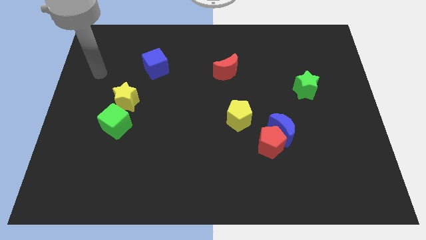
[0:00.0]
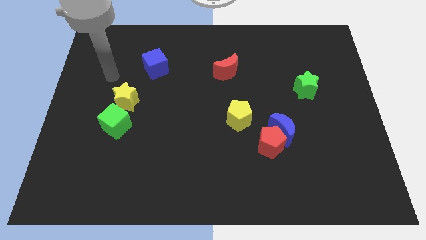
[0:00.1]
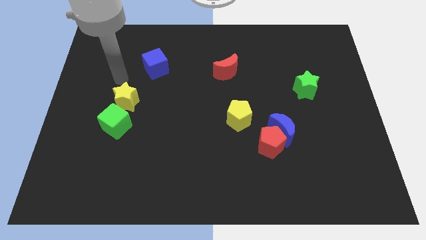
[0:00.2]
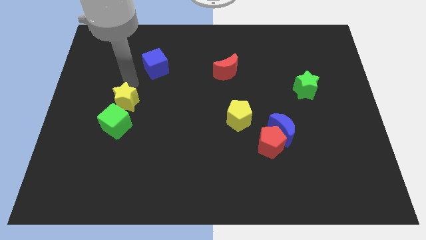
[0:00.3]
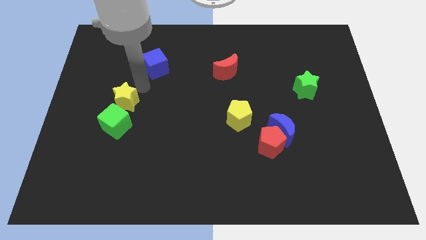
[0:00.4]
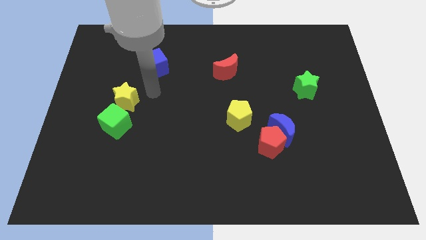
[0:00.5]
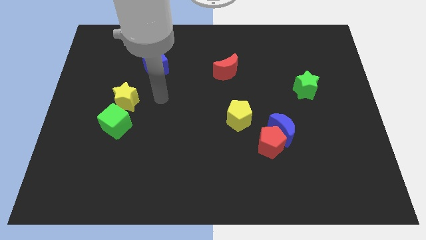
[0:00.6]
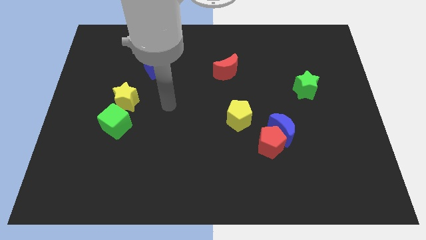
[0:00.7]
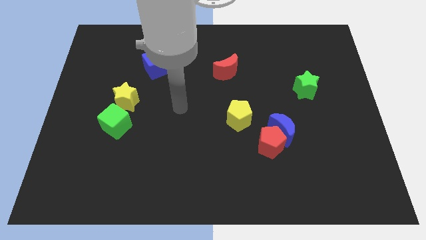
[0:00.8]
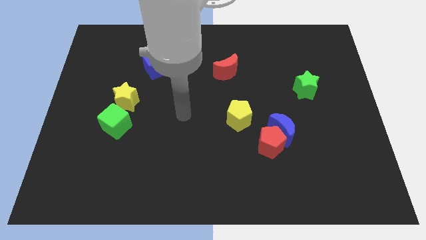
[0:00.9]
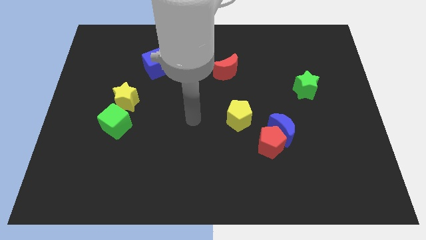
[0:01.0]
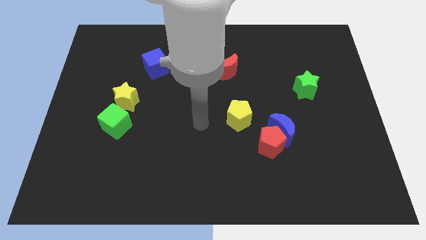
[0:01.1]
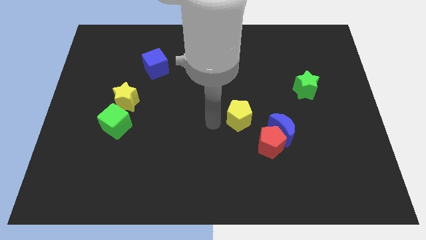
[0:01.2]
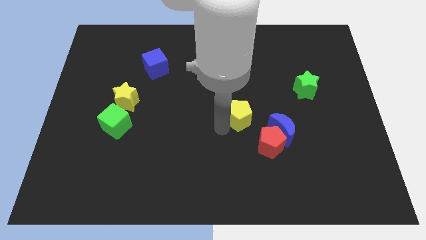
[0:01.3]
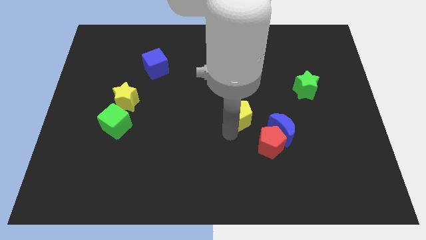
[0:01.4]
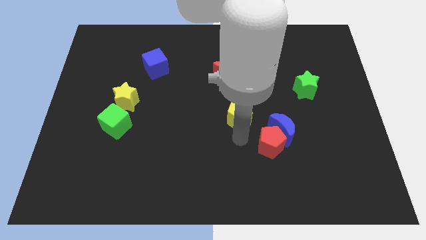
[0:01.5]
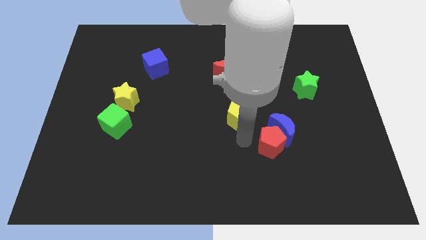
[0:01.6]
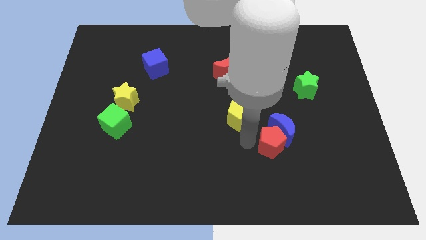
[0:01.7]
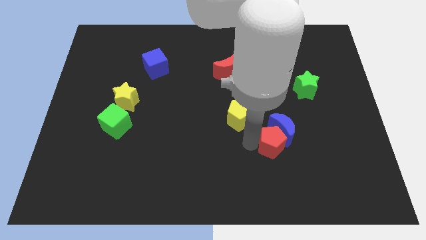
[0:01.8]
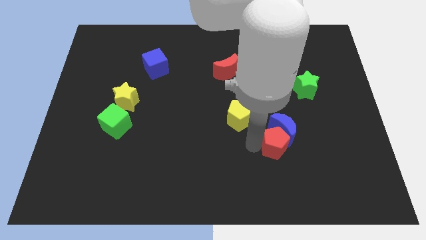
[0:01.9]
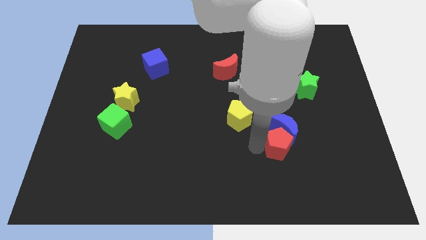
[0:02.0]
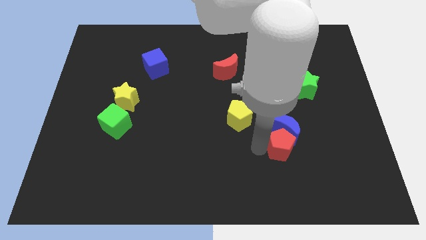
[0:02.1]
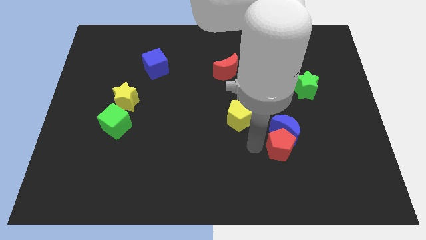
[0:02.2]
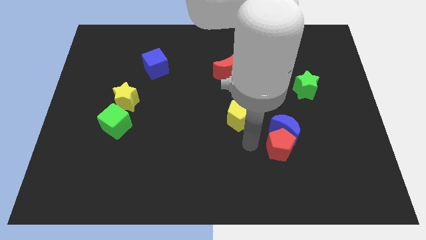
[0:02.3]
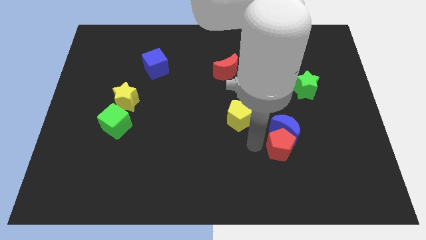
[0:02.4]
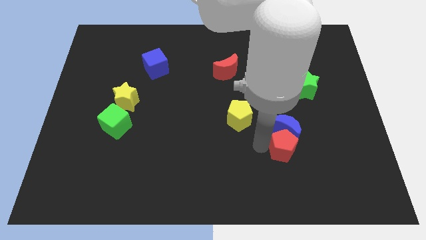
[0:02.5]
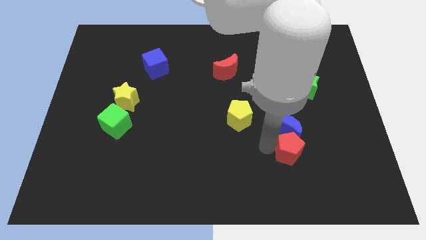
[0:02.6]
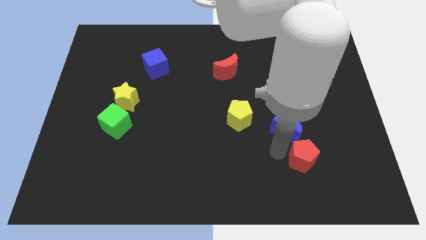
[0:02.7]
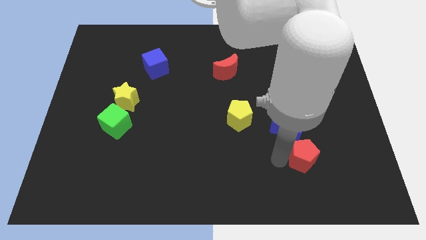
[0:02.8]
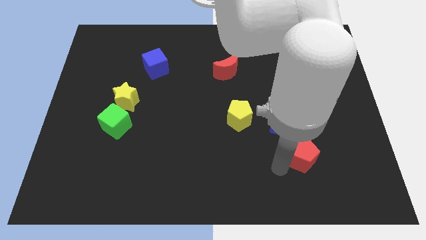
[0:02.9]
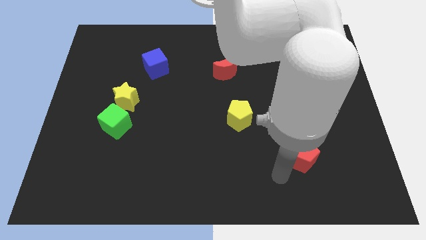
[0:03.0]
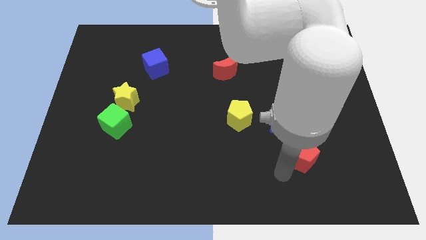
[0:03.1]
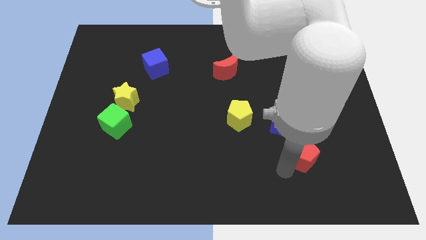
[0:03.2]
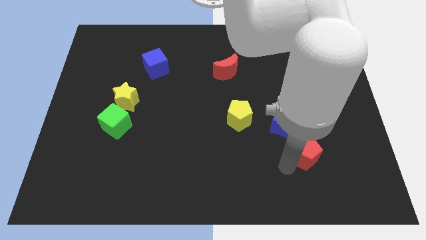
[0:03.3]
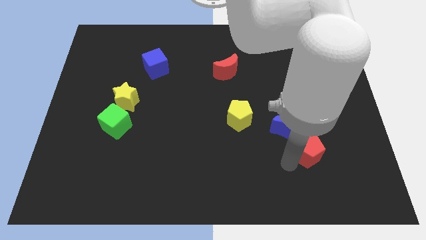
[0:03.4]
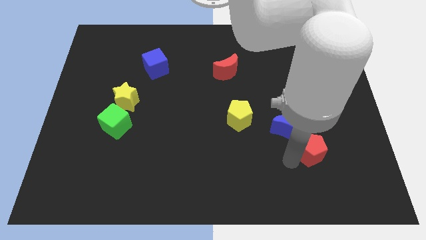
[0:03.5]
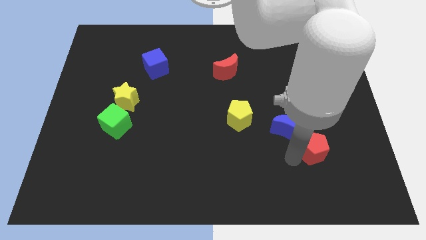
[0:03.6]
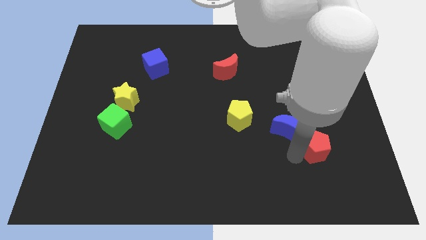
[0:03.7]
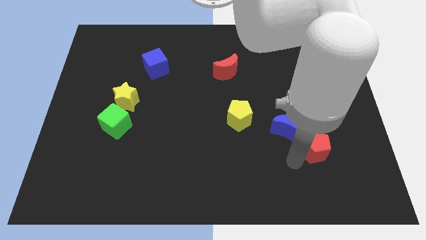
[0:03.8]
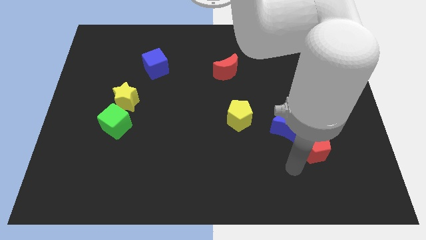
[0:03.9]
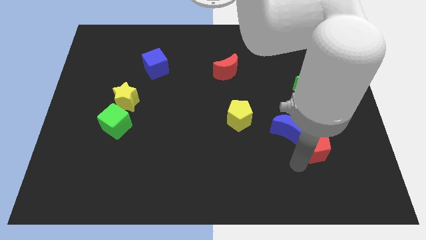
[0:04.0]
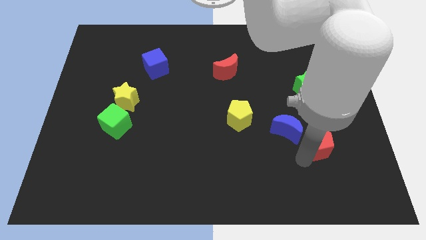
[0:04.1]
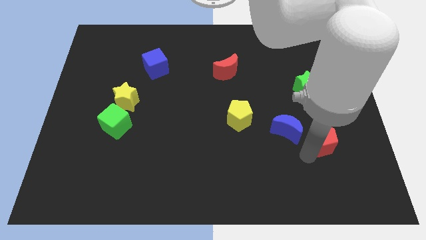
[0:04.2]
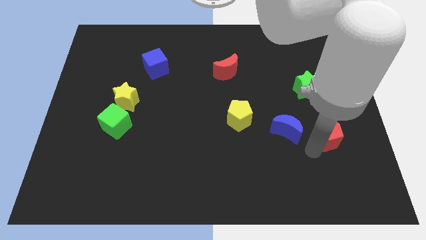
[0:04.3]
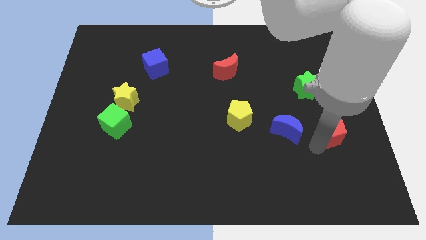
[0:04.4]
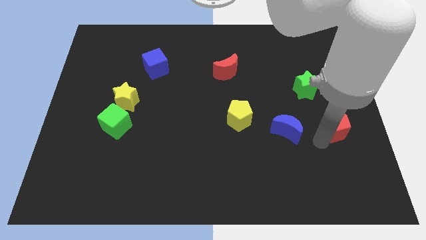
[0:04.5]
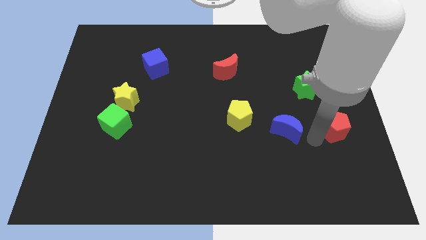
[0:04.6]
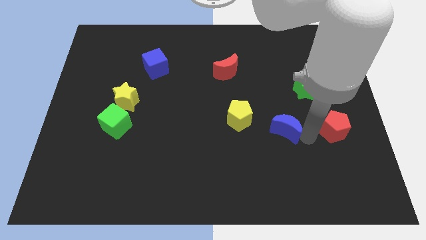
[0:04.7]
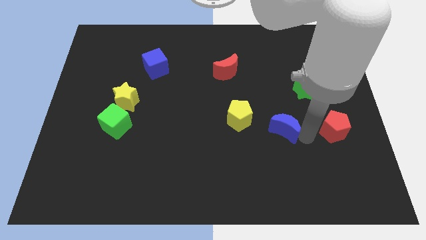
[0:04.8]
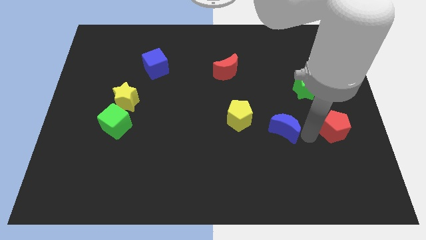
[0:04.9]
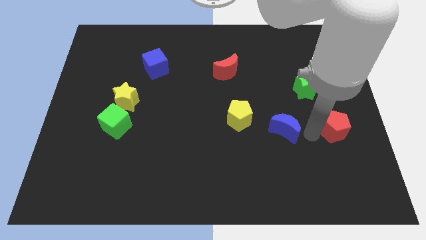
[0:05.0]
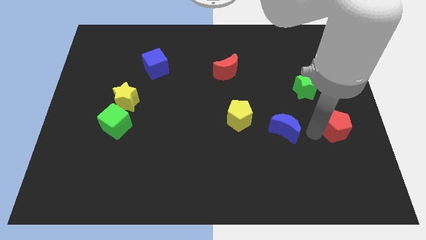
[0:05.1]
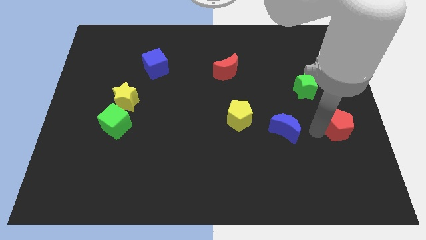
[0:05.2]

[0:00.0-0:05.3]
put the red pentagon to the center right

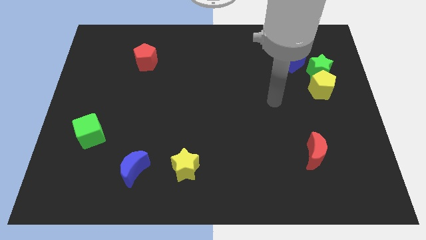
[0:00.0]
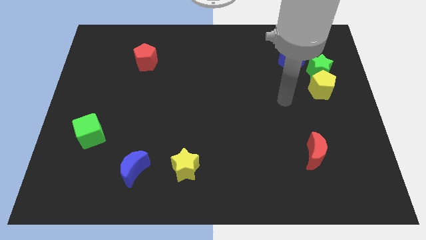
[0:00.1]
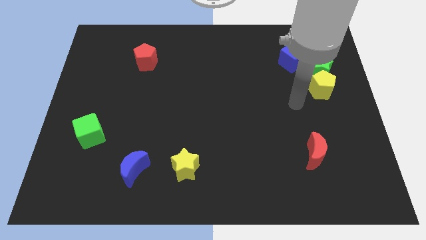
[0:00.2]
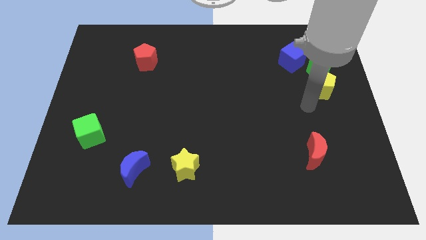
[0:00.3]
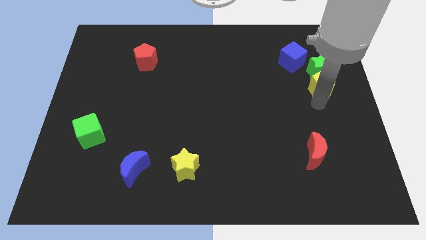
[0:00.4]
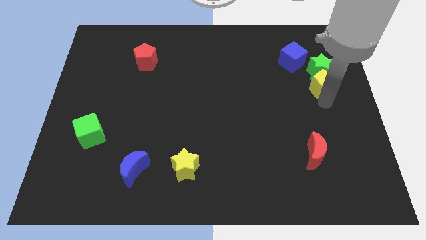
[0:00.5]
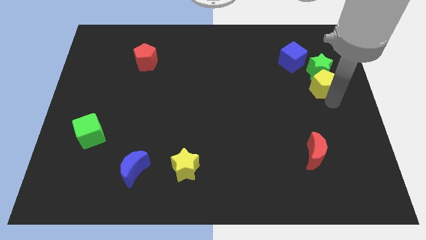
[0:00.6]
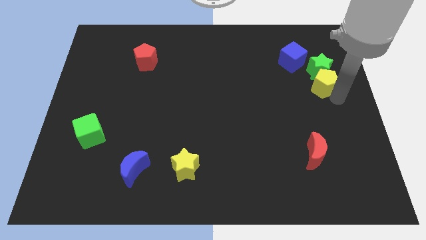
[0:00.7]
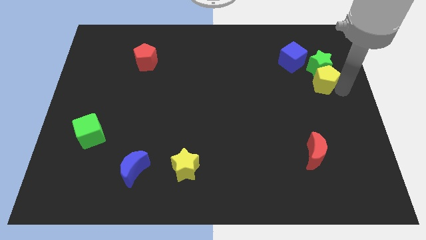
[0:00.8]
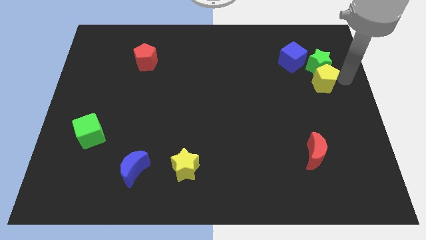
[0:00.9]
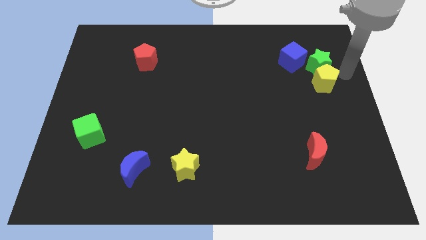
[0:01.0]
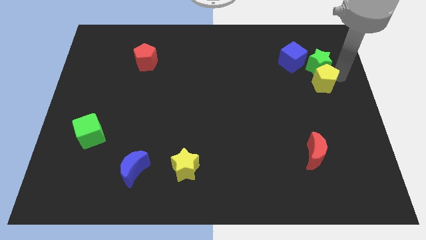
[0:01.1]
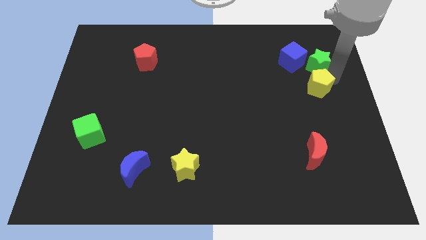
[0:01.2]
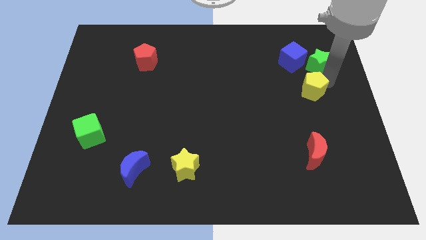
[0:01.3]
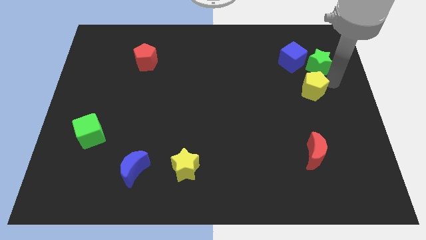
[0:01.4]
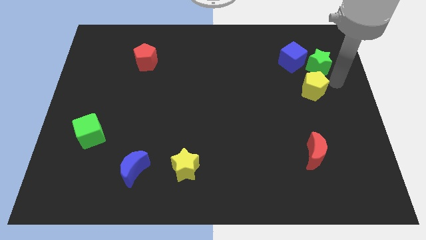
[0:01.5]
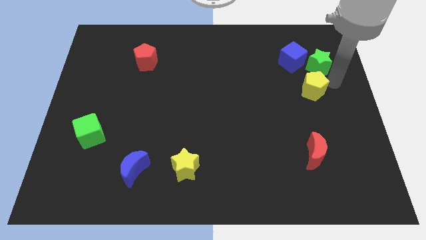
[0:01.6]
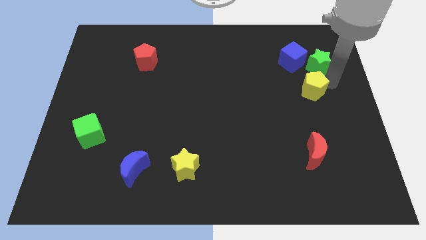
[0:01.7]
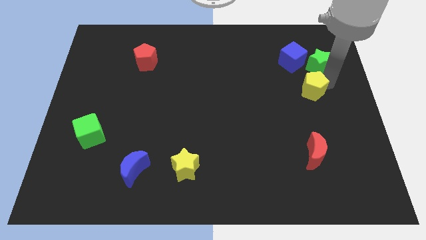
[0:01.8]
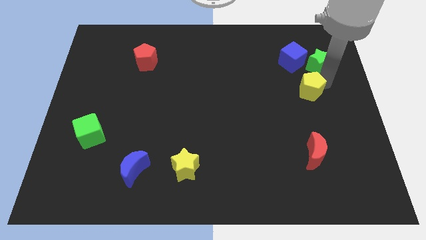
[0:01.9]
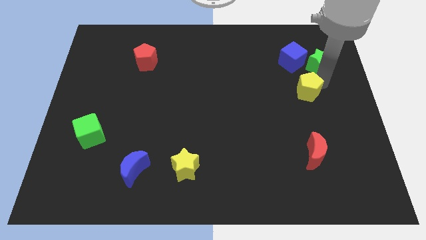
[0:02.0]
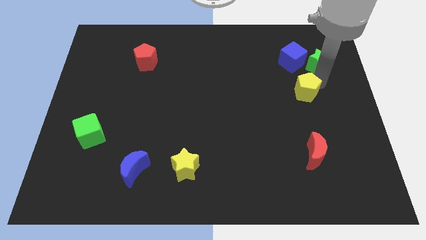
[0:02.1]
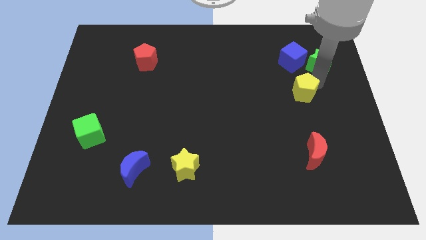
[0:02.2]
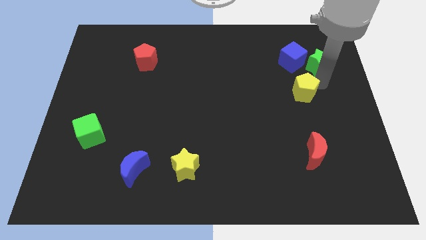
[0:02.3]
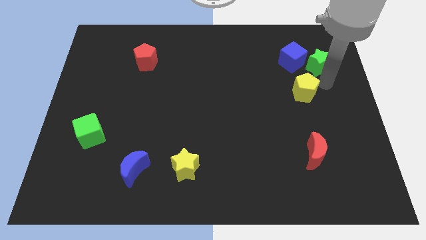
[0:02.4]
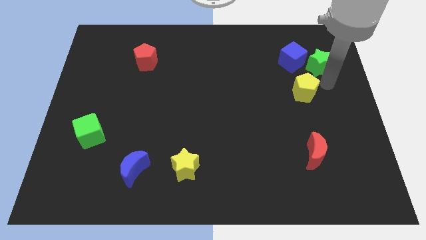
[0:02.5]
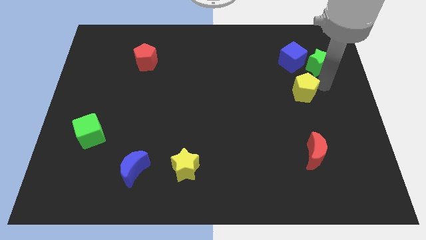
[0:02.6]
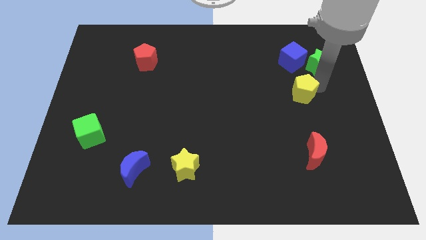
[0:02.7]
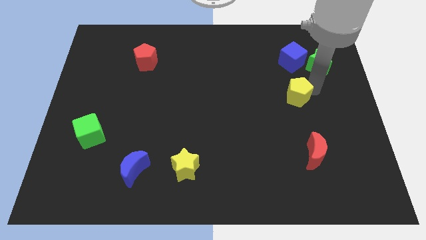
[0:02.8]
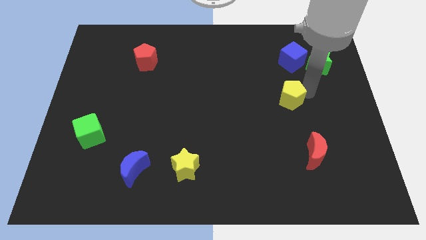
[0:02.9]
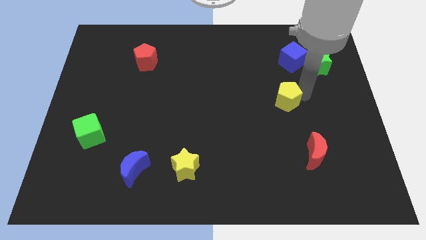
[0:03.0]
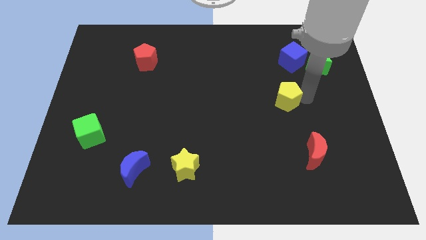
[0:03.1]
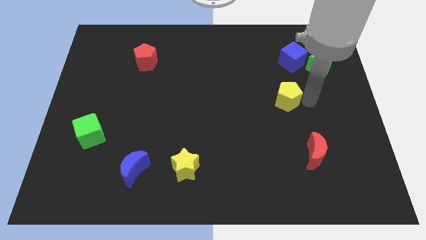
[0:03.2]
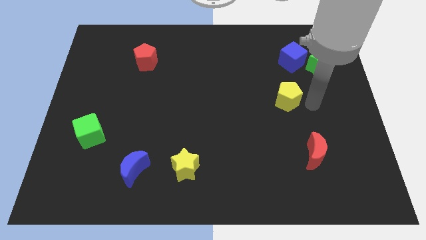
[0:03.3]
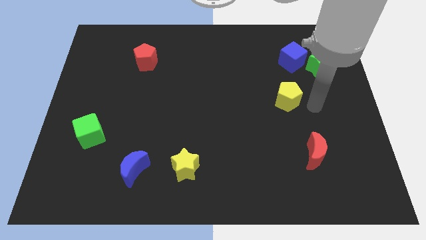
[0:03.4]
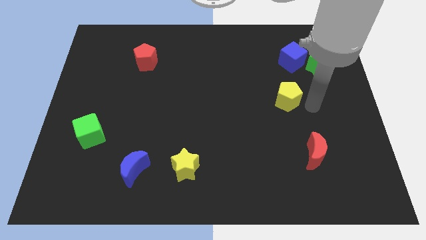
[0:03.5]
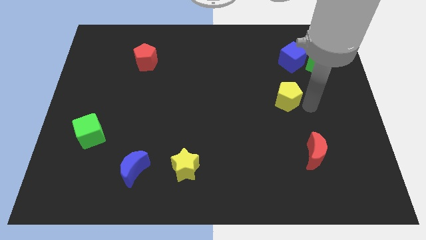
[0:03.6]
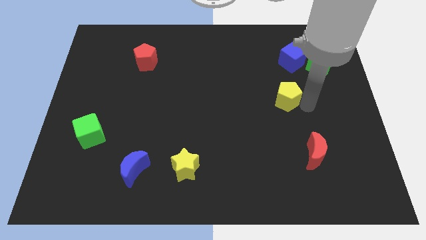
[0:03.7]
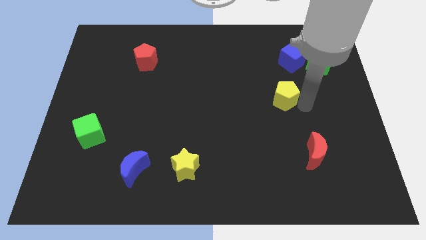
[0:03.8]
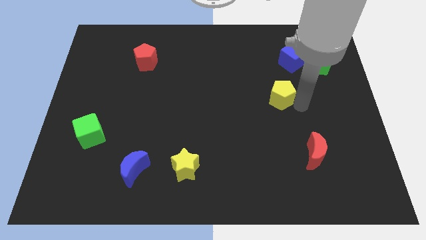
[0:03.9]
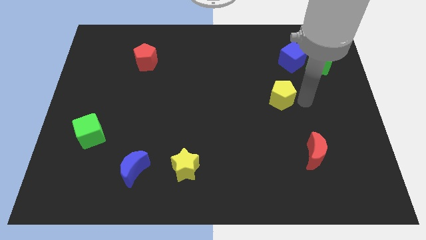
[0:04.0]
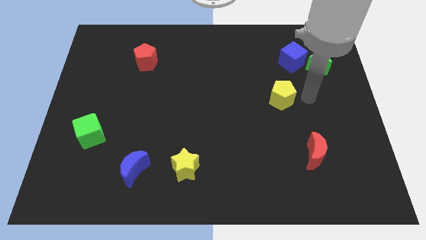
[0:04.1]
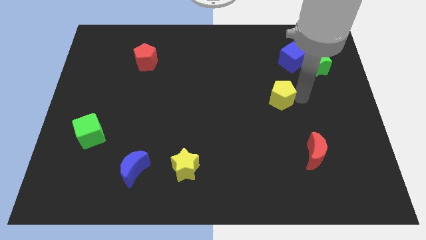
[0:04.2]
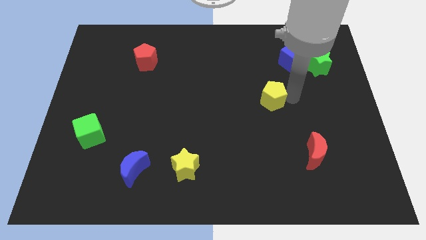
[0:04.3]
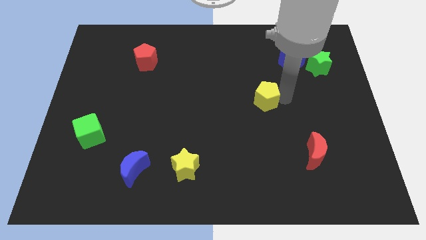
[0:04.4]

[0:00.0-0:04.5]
push the yellow pentagon to the center of the board
